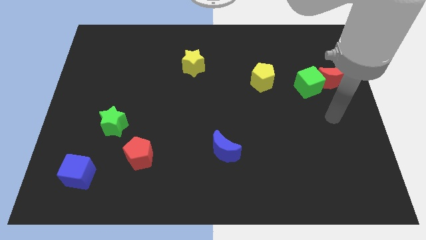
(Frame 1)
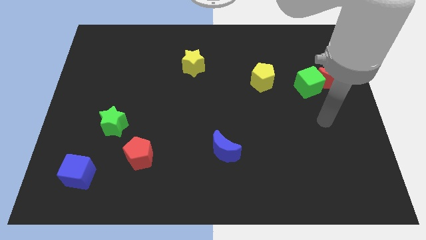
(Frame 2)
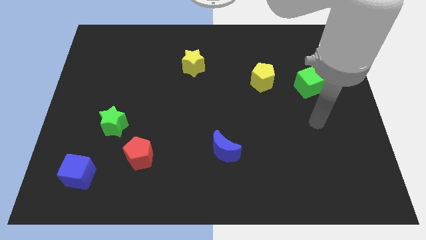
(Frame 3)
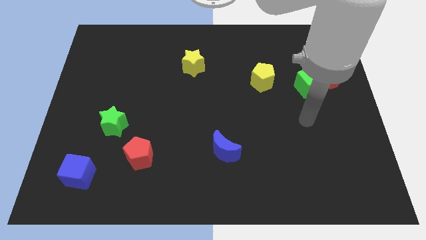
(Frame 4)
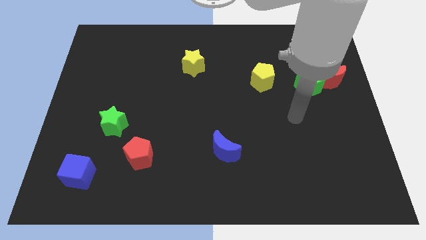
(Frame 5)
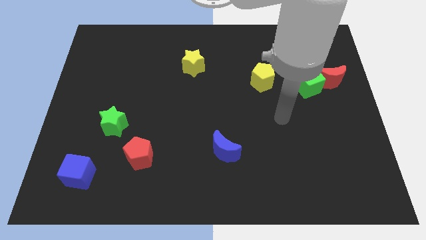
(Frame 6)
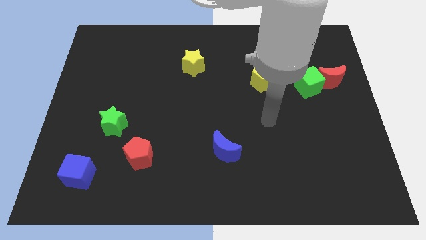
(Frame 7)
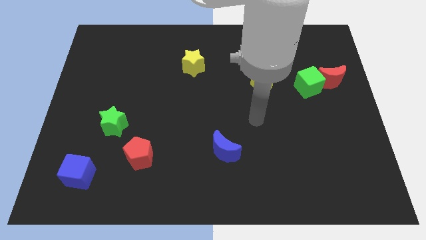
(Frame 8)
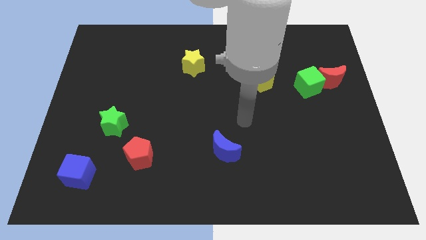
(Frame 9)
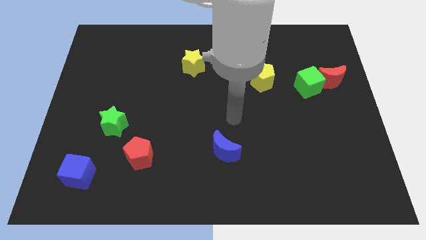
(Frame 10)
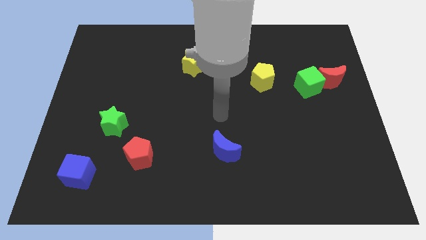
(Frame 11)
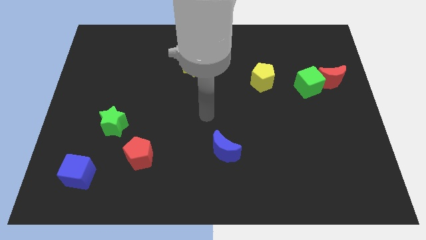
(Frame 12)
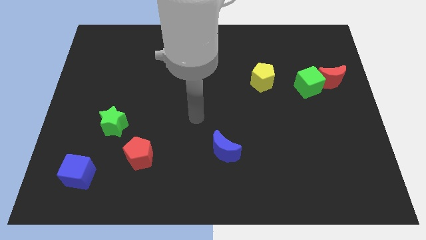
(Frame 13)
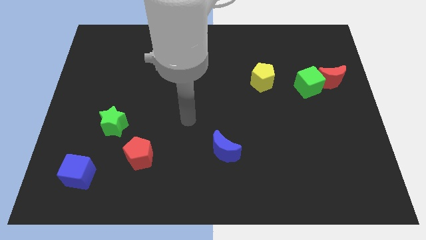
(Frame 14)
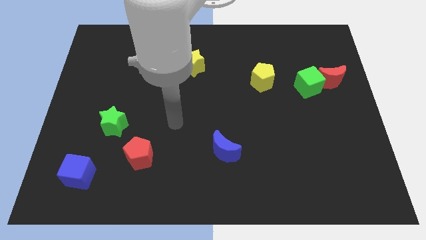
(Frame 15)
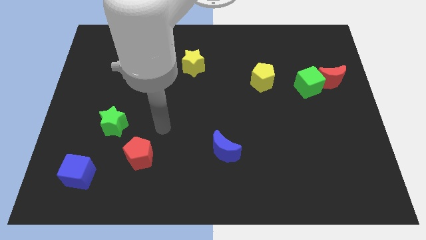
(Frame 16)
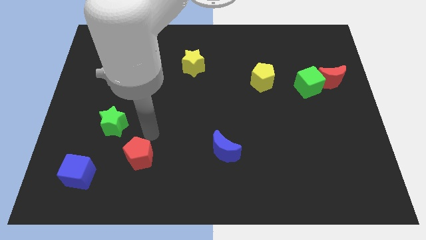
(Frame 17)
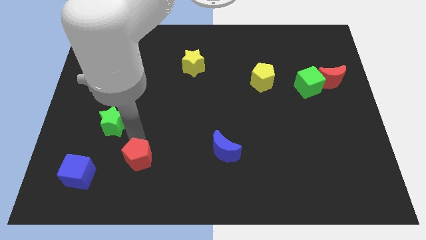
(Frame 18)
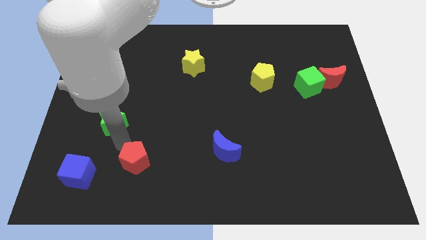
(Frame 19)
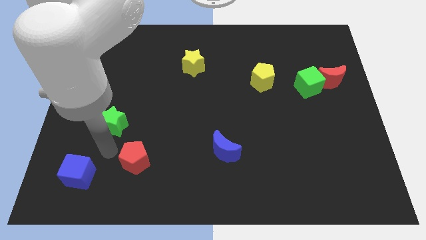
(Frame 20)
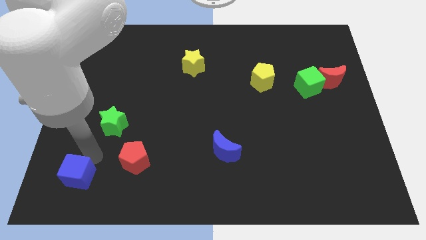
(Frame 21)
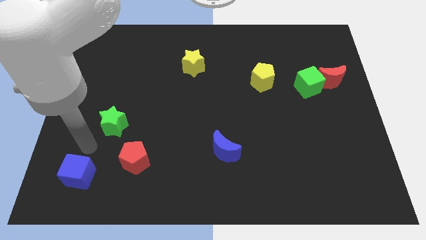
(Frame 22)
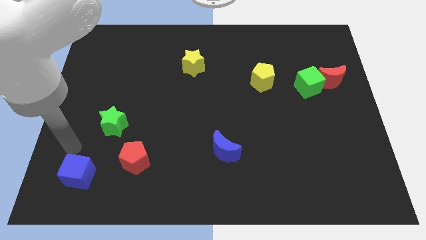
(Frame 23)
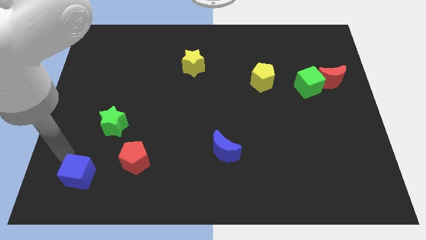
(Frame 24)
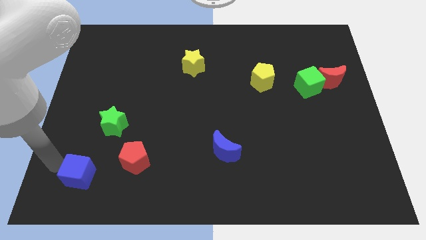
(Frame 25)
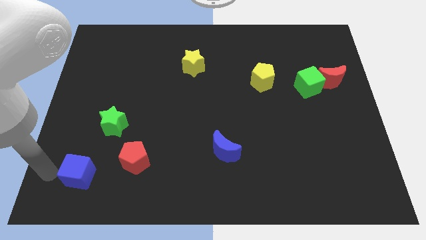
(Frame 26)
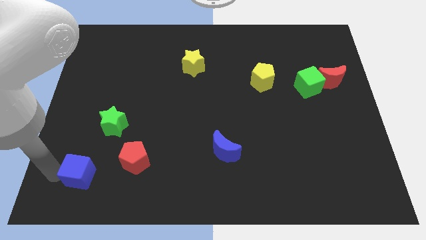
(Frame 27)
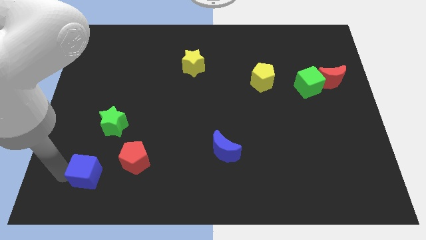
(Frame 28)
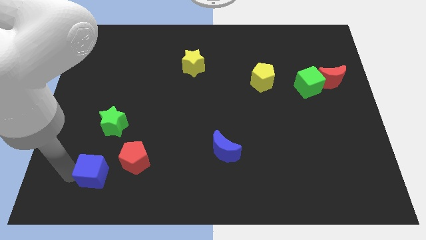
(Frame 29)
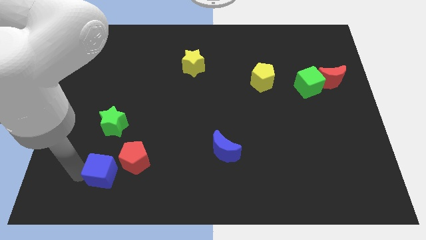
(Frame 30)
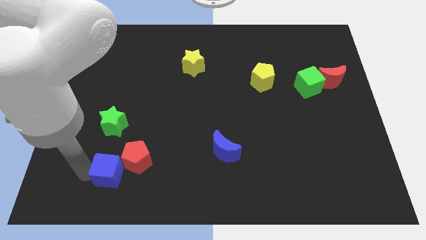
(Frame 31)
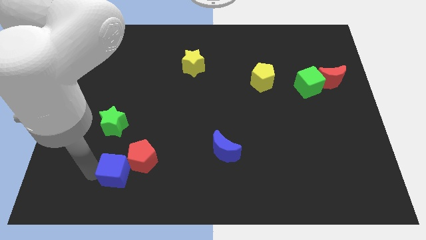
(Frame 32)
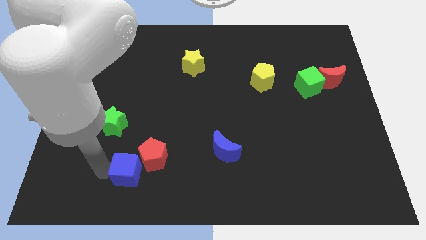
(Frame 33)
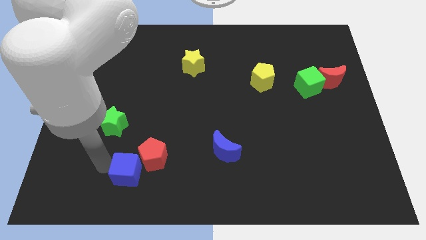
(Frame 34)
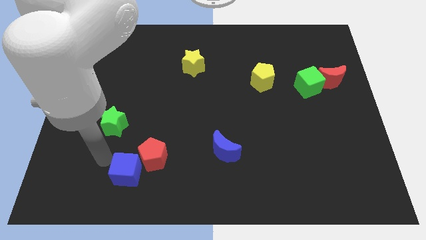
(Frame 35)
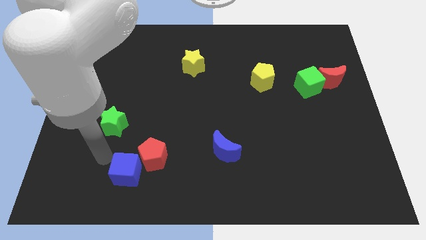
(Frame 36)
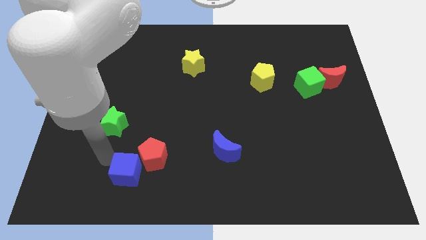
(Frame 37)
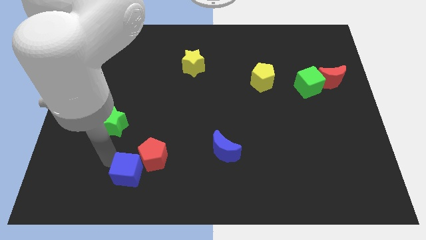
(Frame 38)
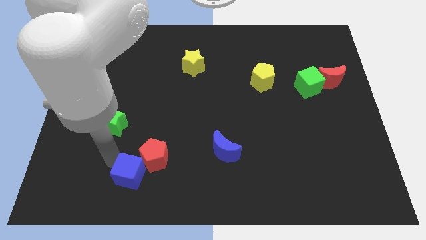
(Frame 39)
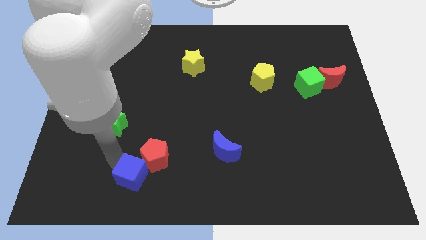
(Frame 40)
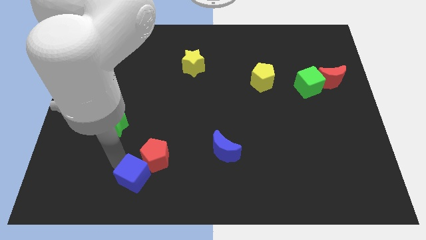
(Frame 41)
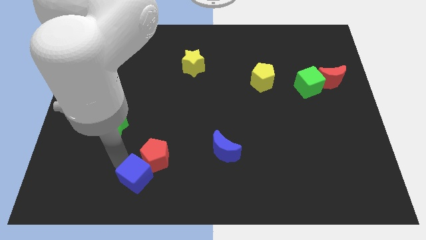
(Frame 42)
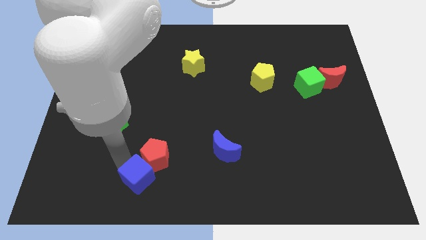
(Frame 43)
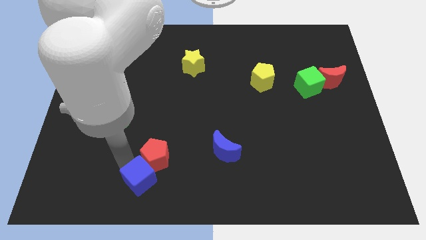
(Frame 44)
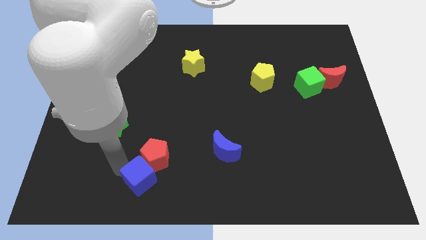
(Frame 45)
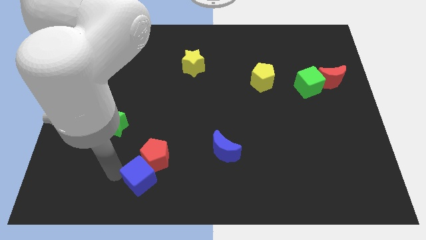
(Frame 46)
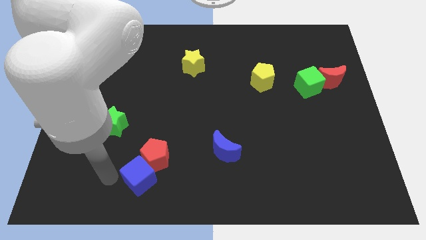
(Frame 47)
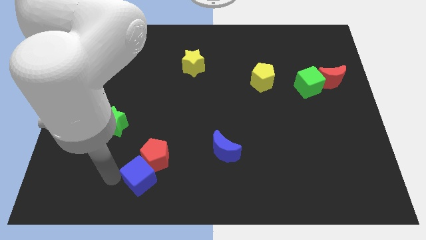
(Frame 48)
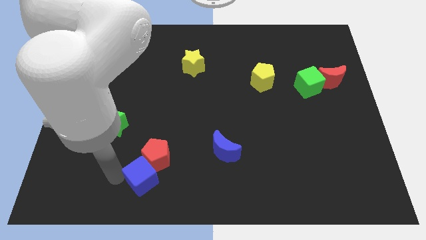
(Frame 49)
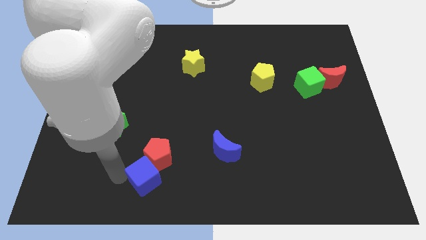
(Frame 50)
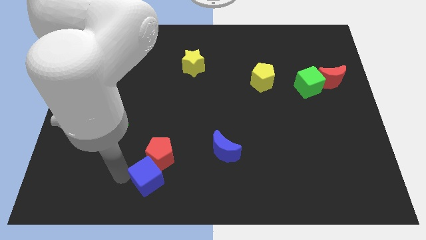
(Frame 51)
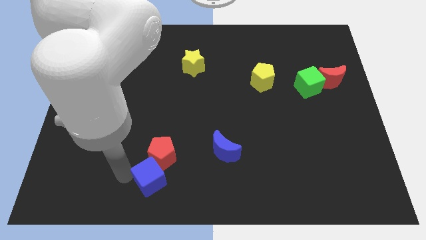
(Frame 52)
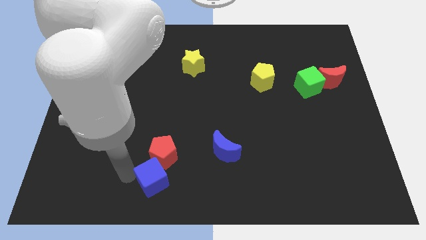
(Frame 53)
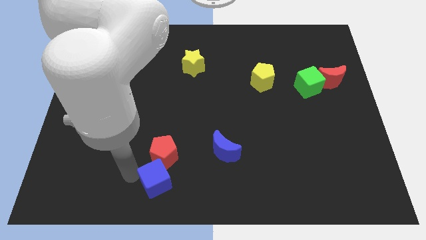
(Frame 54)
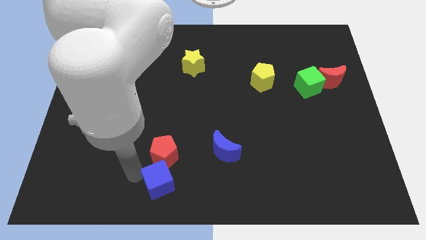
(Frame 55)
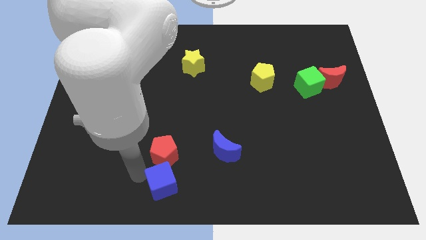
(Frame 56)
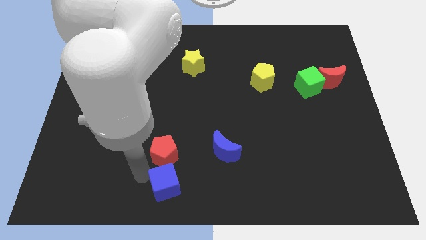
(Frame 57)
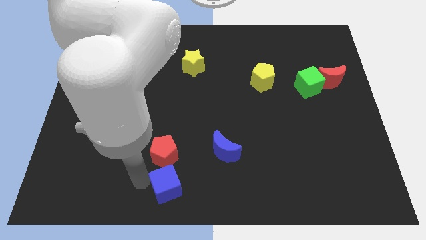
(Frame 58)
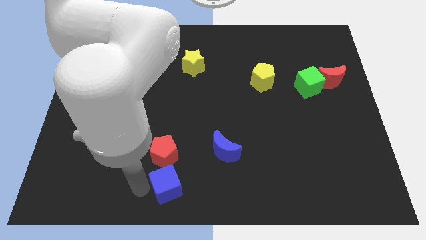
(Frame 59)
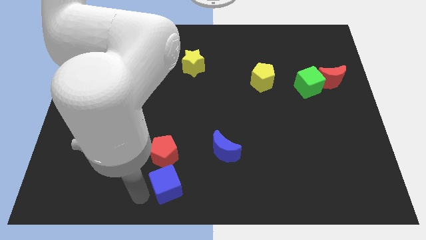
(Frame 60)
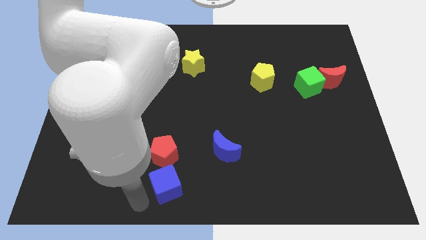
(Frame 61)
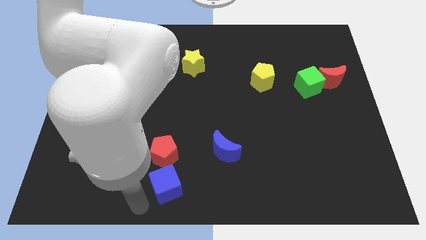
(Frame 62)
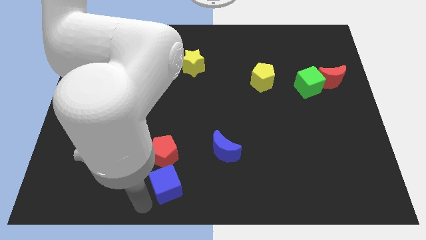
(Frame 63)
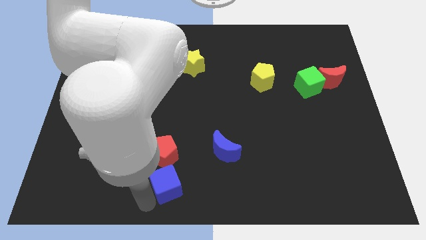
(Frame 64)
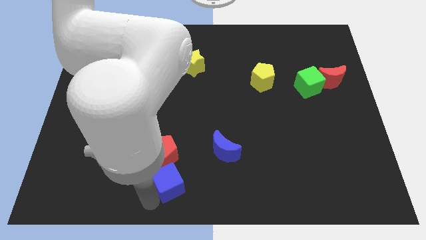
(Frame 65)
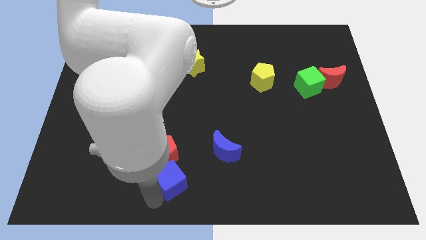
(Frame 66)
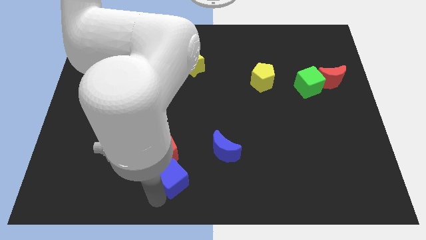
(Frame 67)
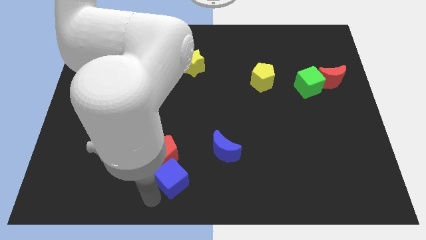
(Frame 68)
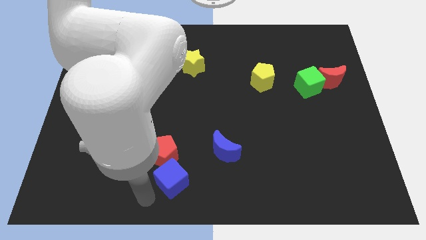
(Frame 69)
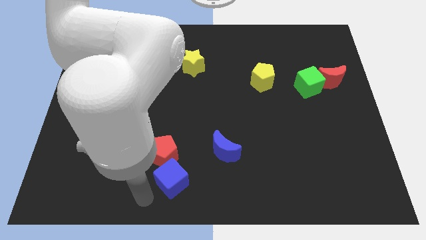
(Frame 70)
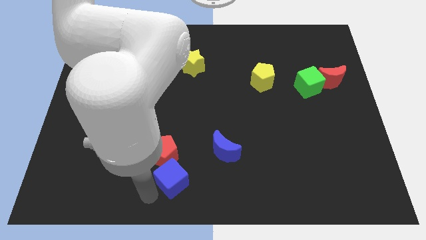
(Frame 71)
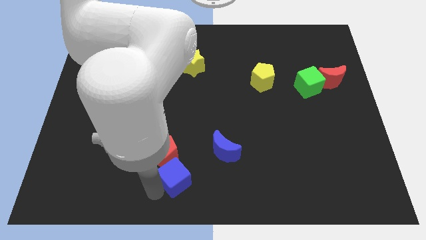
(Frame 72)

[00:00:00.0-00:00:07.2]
push the blue cube to the right

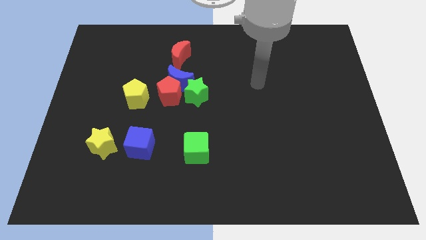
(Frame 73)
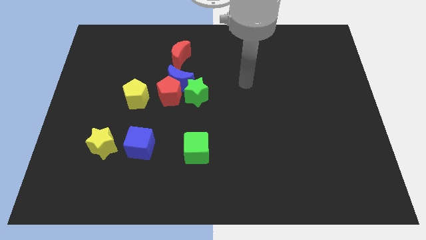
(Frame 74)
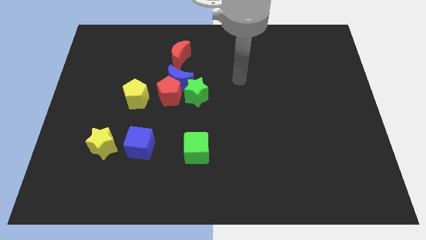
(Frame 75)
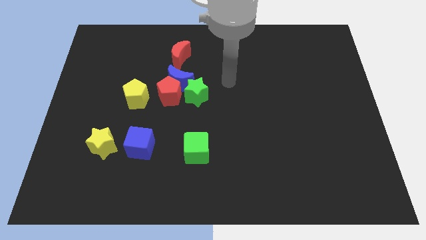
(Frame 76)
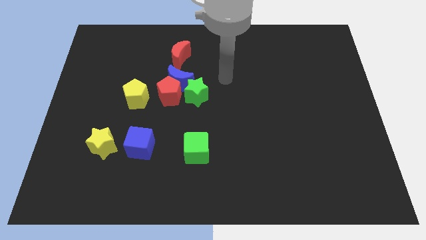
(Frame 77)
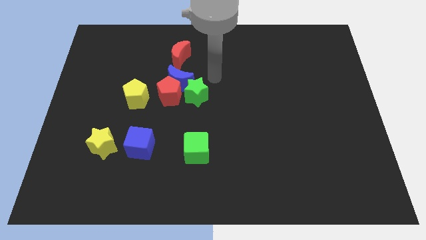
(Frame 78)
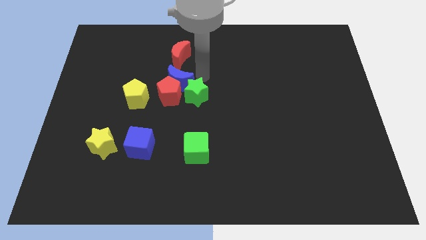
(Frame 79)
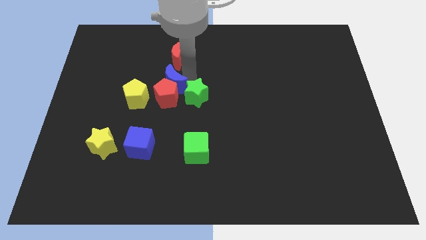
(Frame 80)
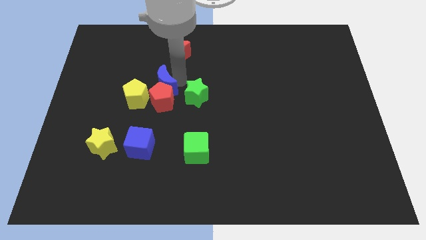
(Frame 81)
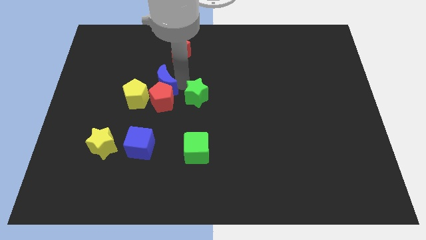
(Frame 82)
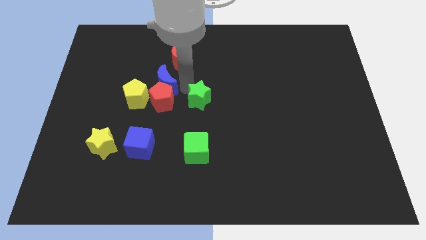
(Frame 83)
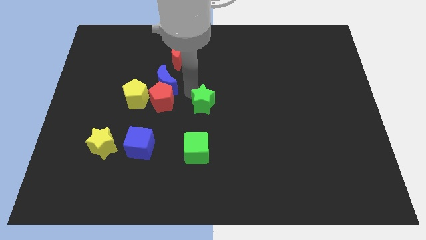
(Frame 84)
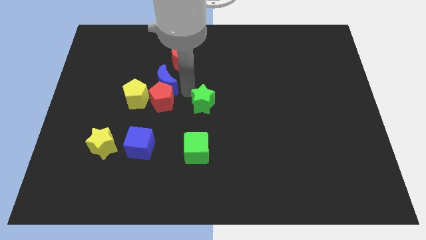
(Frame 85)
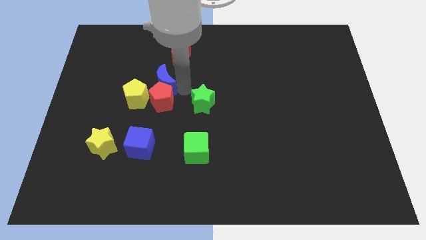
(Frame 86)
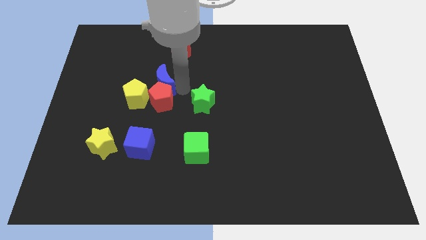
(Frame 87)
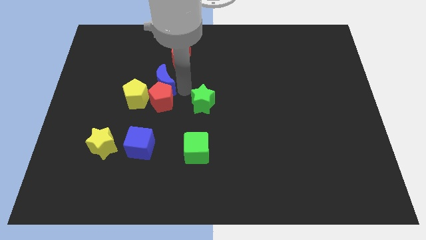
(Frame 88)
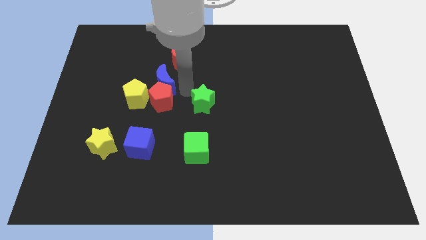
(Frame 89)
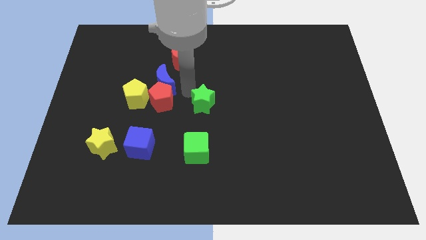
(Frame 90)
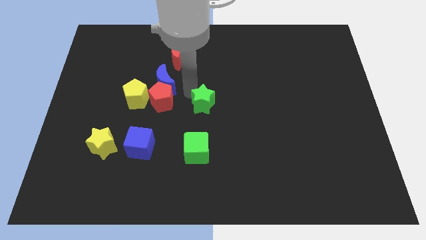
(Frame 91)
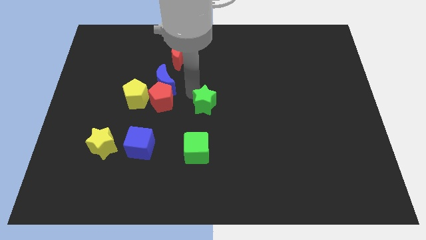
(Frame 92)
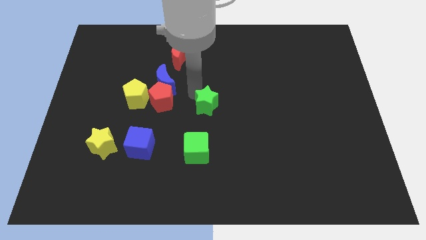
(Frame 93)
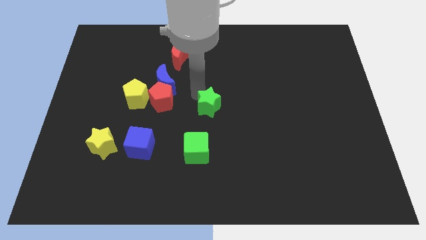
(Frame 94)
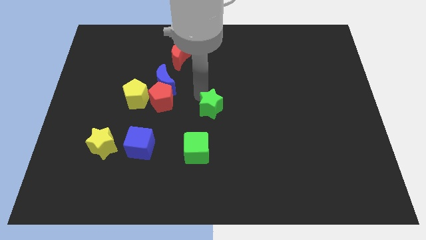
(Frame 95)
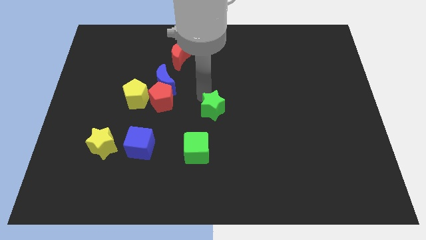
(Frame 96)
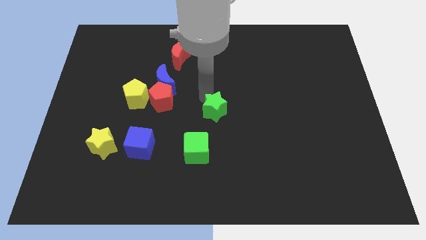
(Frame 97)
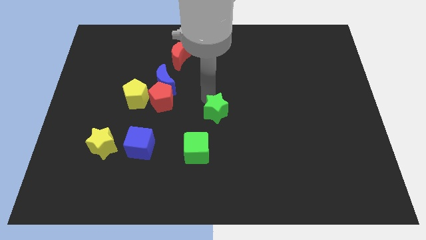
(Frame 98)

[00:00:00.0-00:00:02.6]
slightly move the green star downwards and then right
